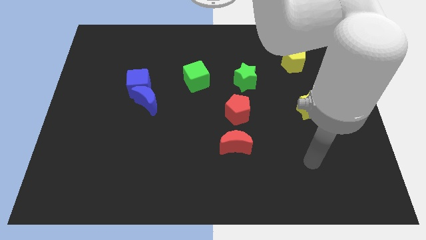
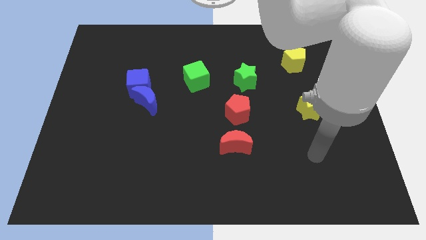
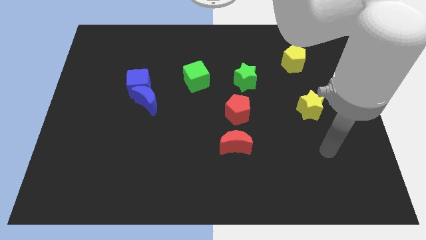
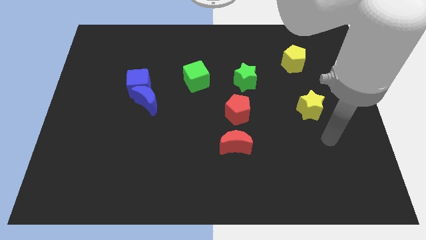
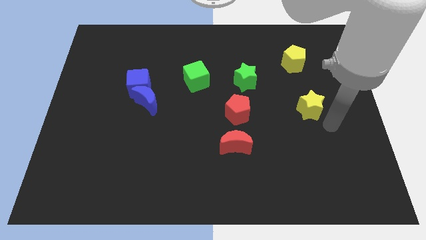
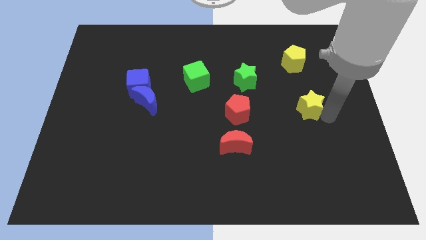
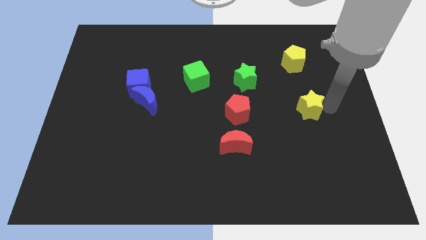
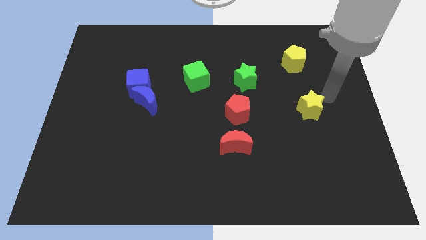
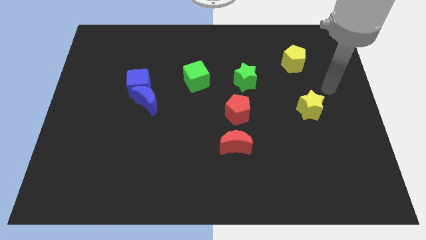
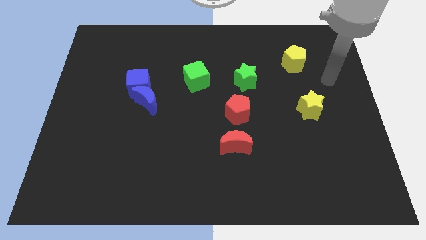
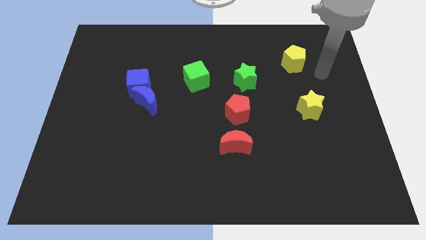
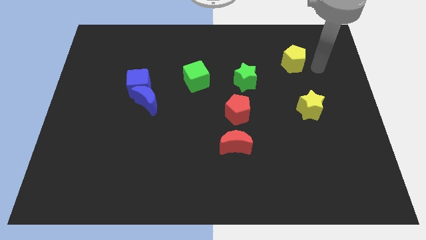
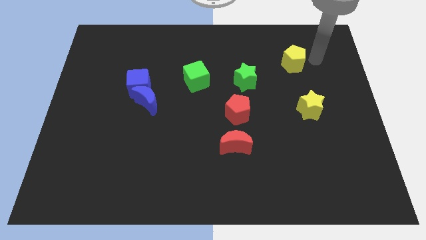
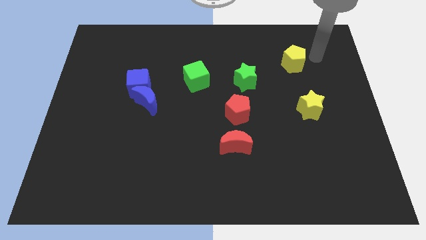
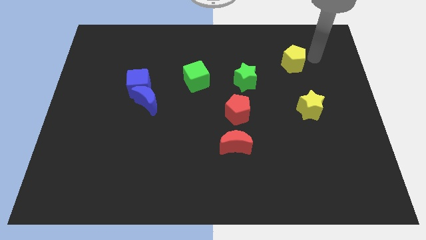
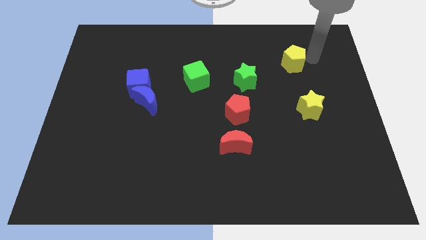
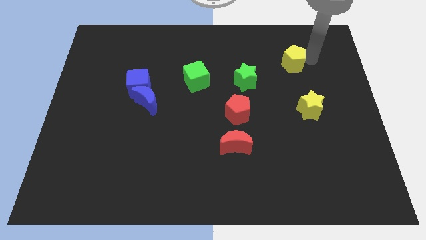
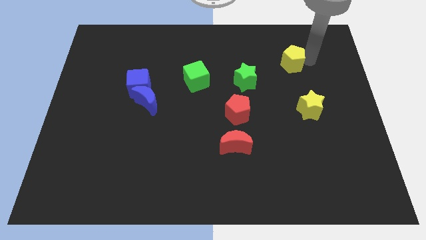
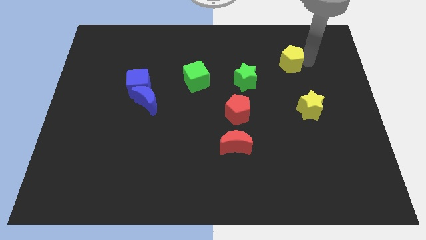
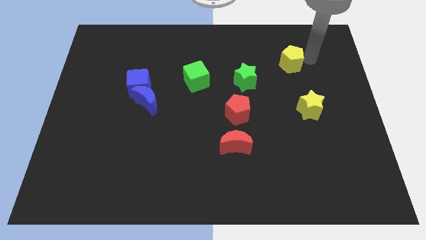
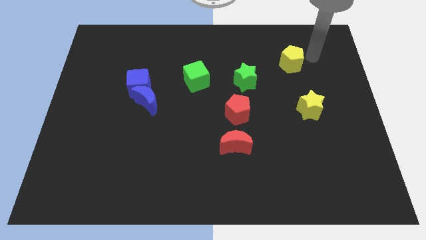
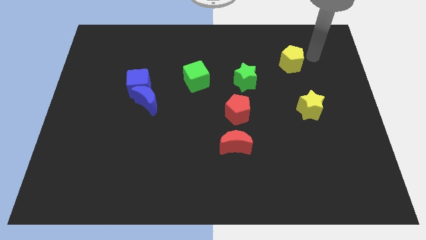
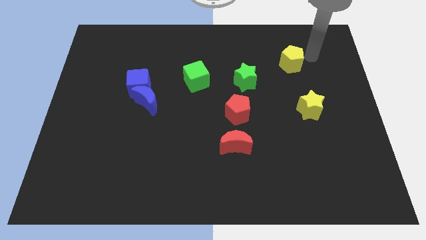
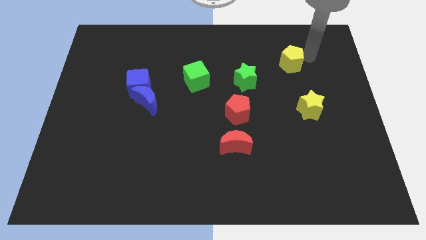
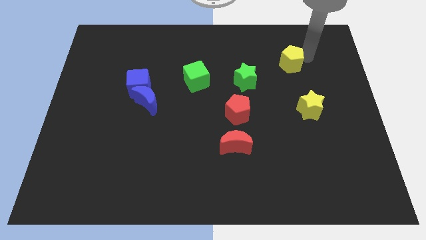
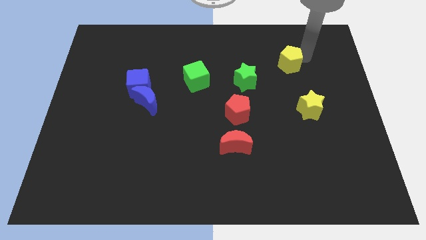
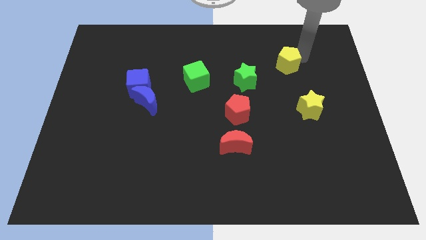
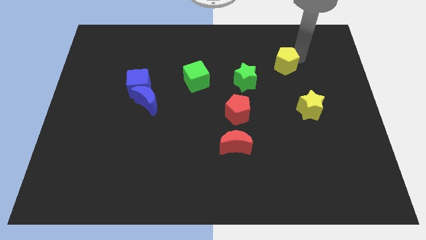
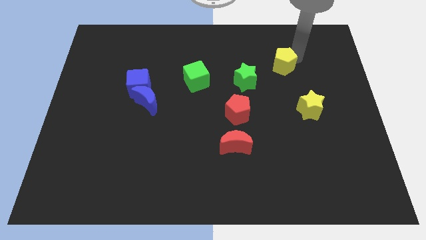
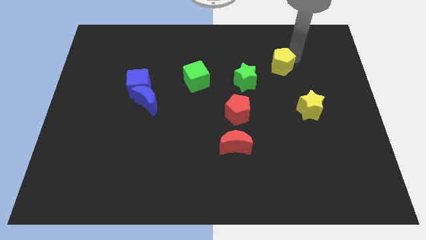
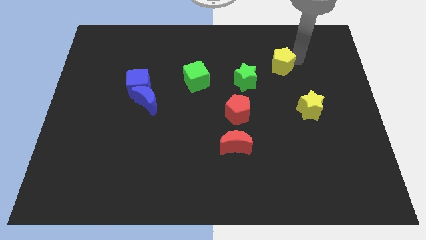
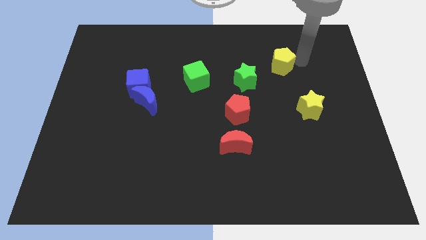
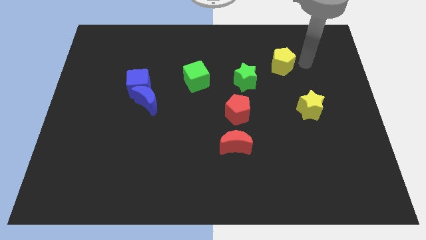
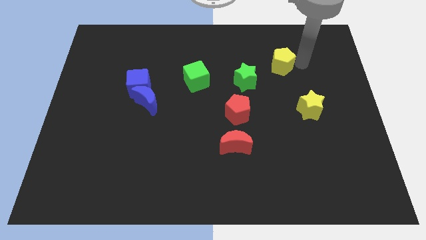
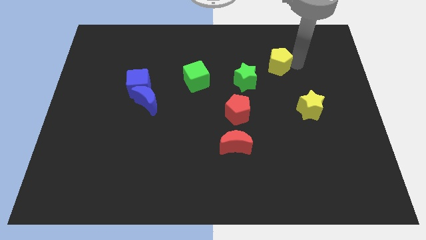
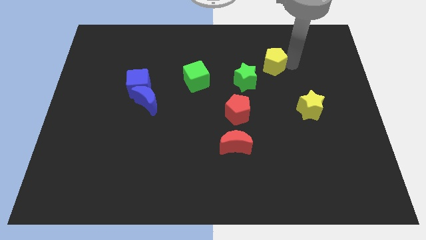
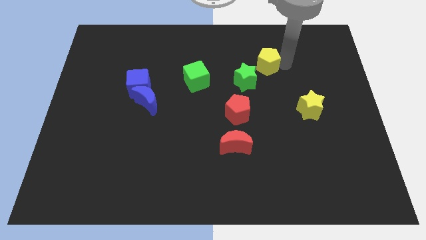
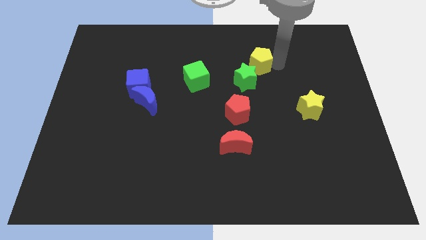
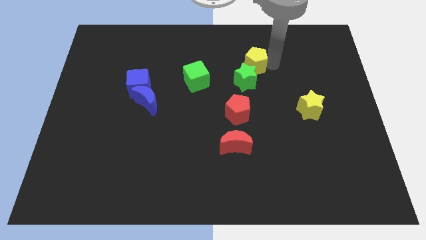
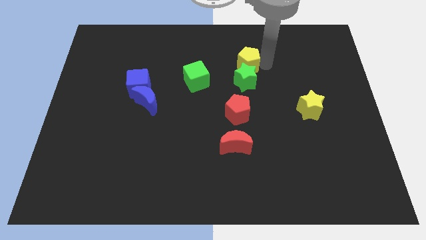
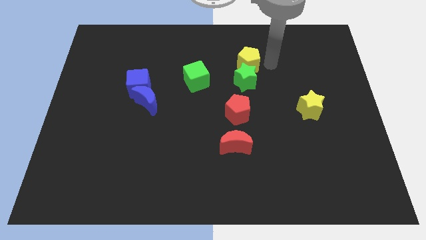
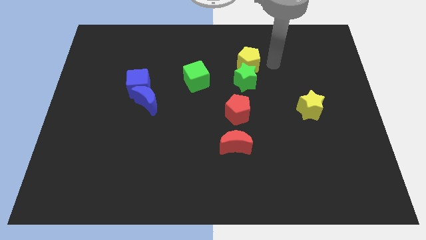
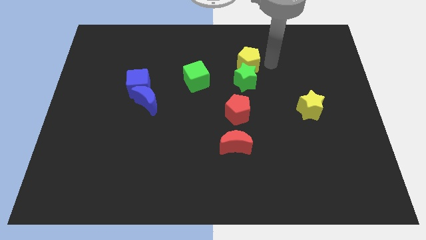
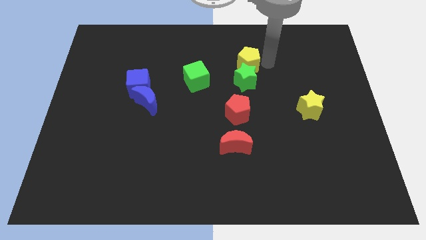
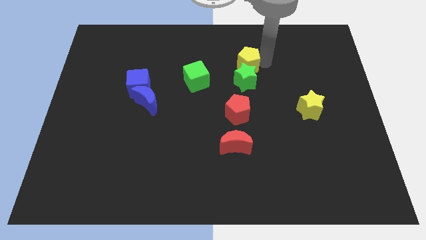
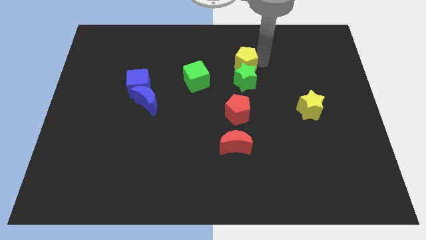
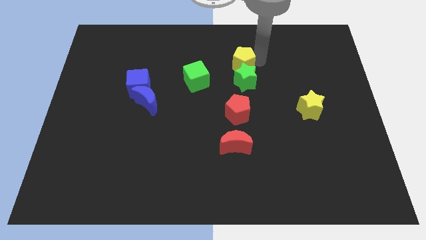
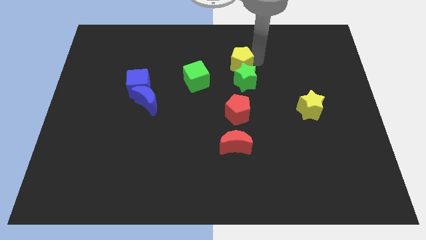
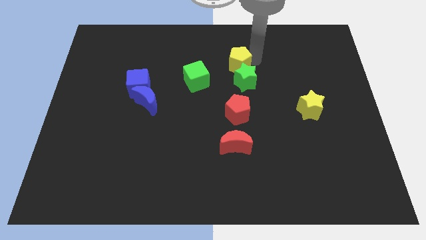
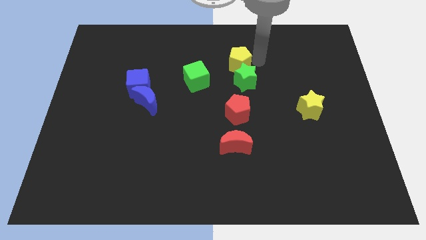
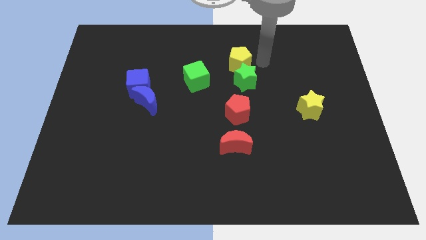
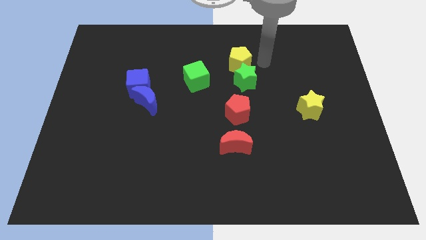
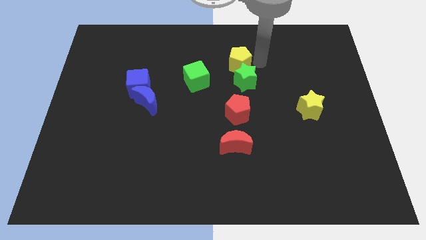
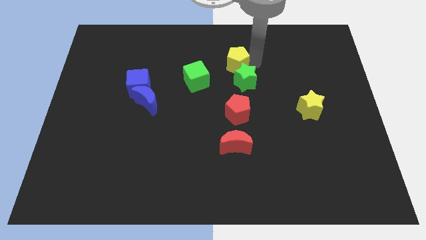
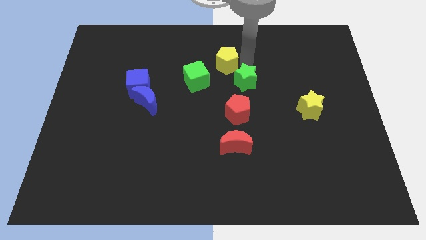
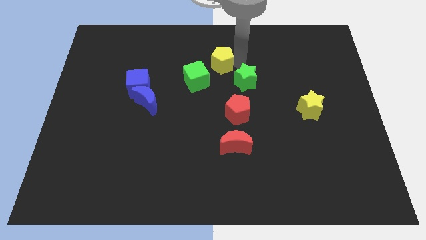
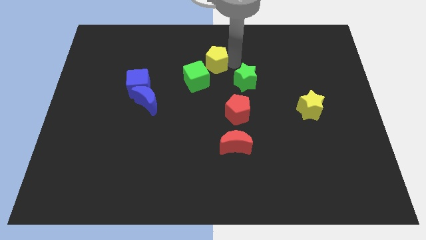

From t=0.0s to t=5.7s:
move the yellow pentagon left

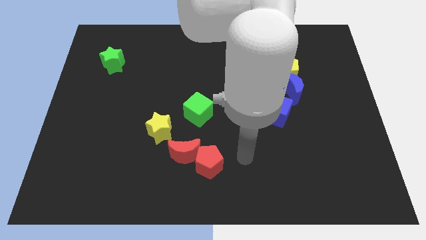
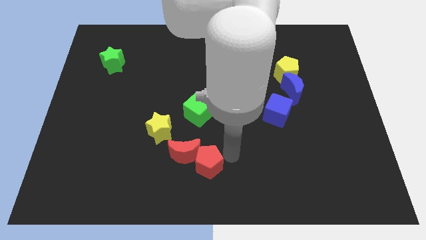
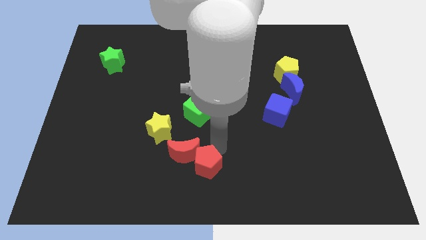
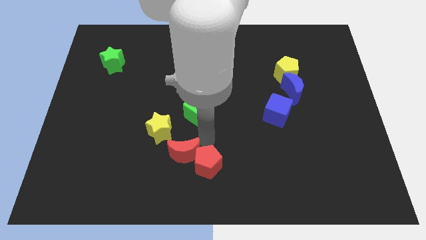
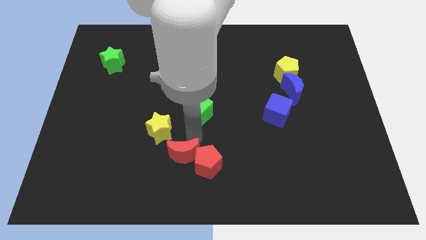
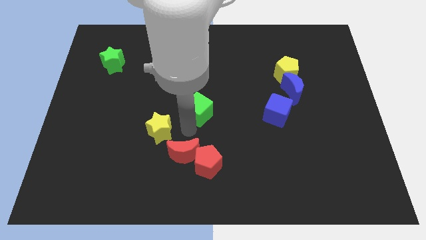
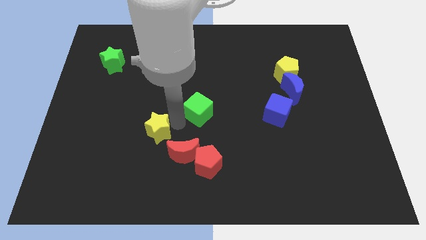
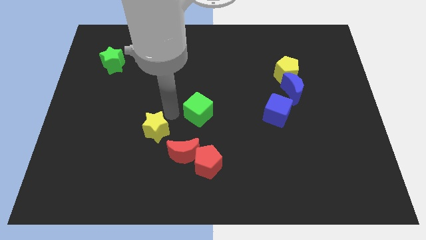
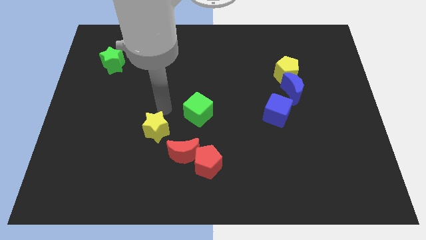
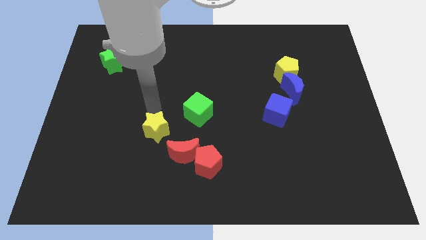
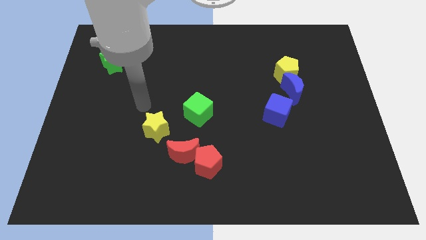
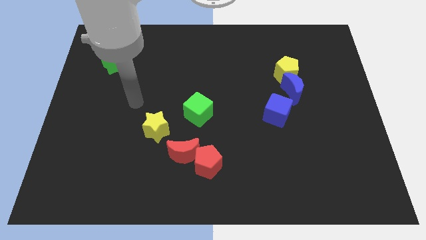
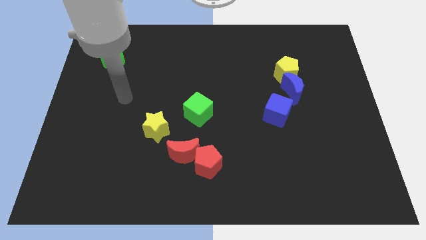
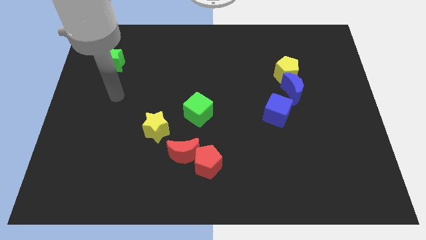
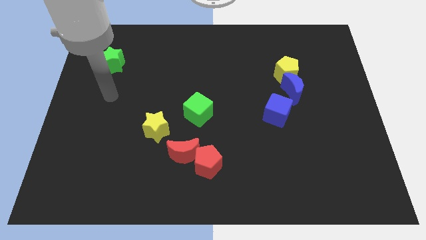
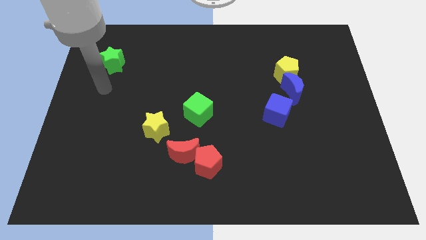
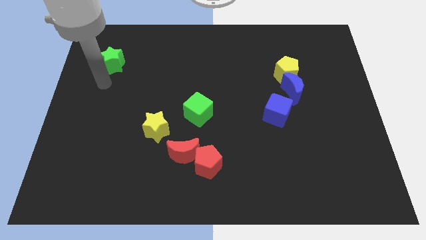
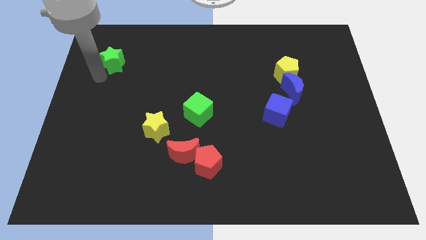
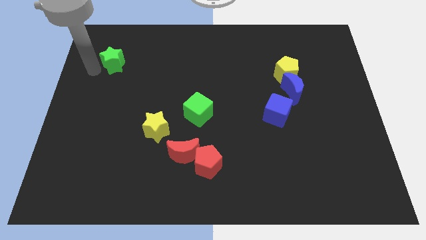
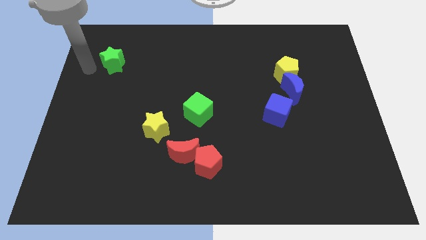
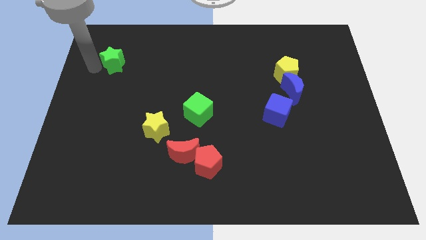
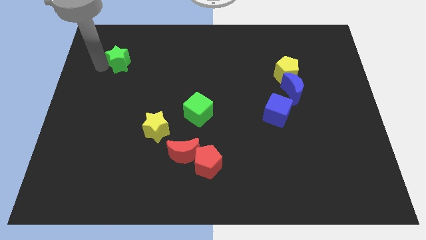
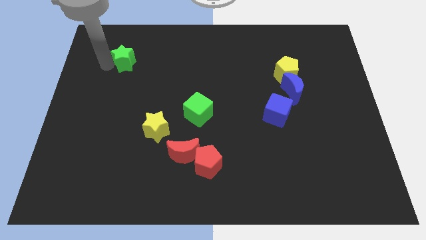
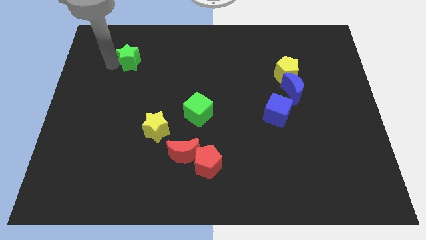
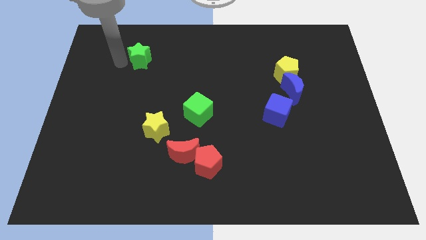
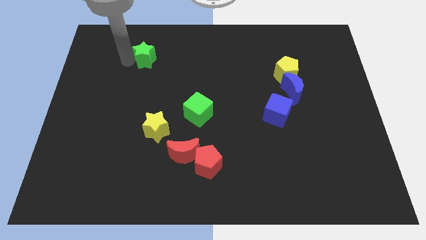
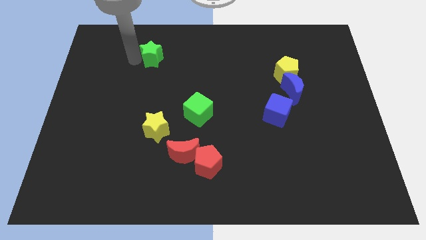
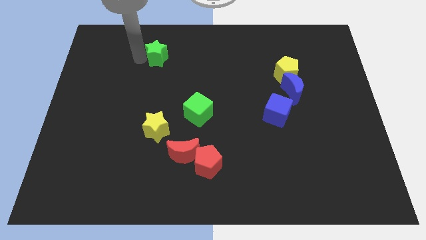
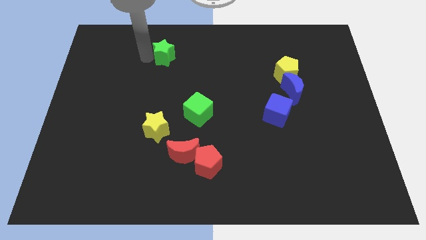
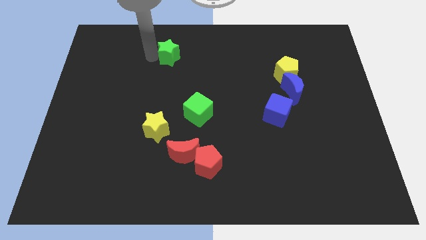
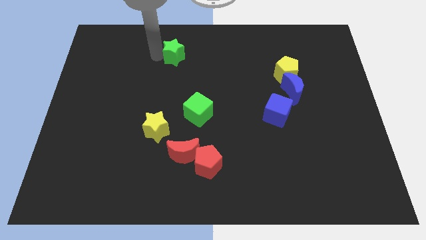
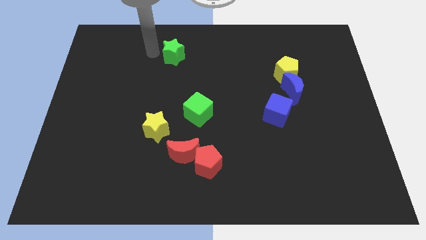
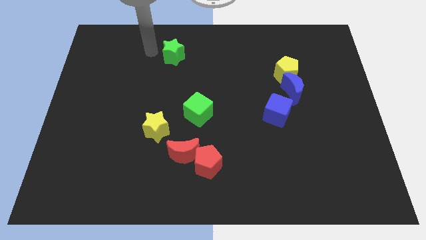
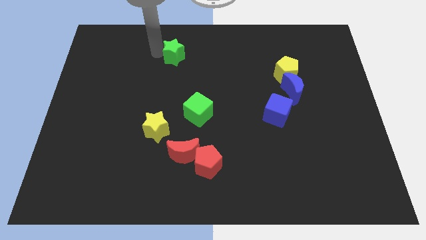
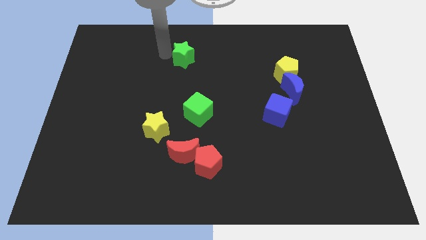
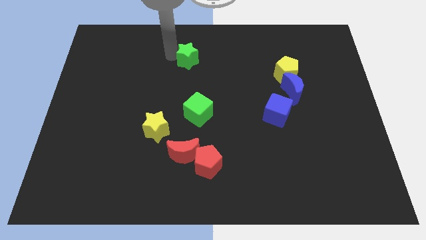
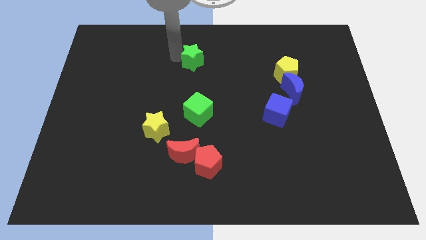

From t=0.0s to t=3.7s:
slide the green star right
